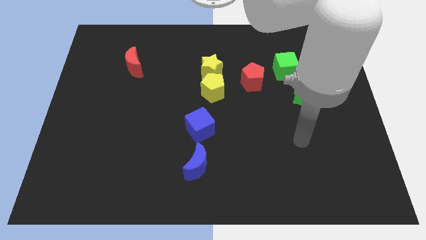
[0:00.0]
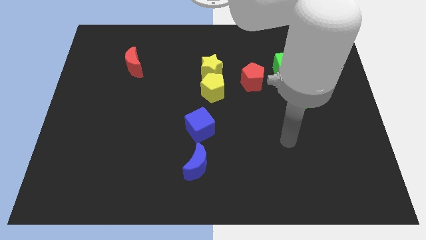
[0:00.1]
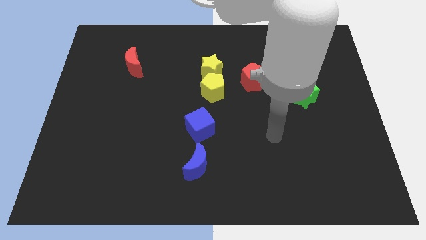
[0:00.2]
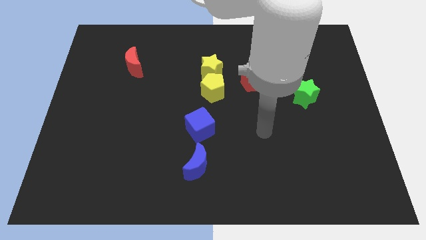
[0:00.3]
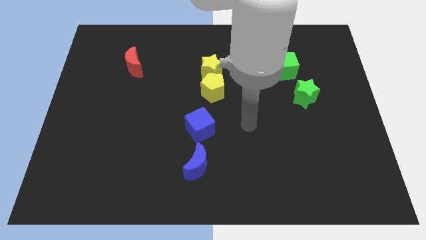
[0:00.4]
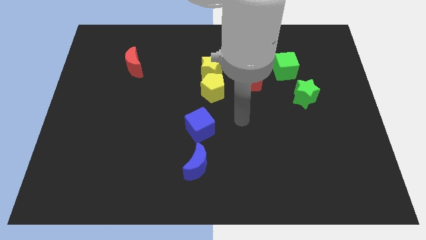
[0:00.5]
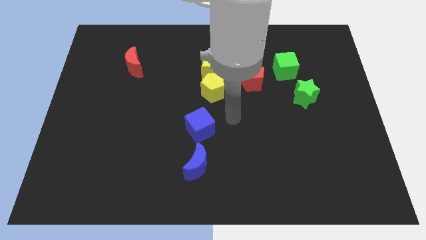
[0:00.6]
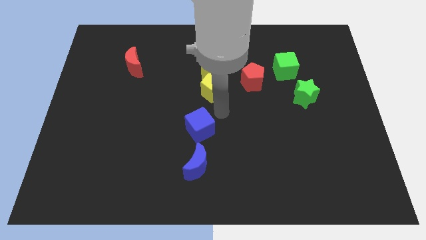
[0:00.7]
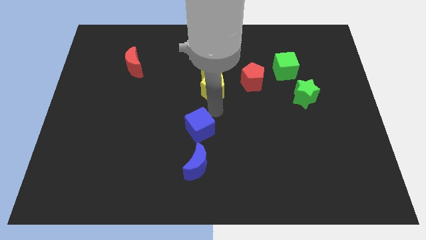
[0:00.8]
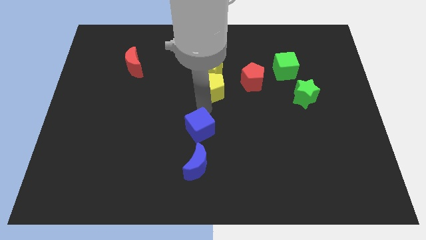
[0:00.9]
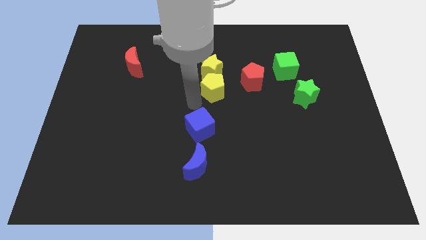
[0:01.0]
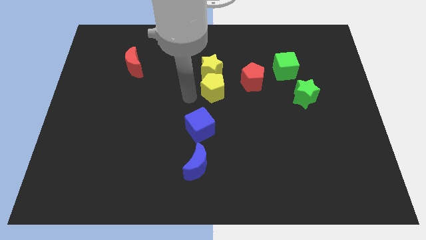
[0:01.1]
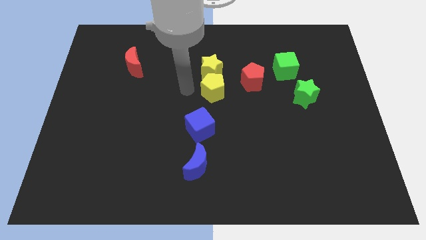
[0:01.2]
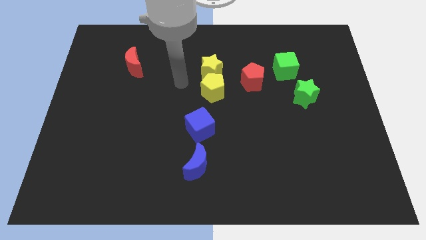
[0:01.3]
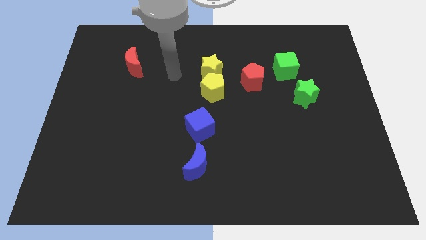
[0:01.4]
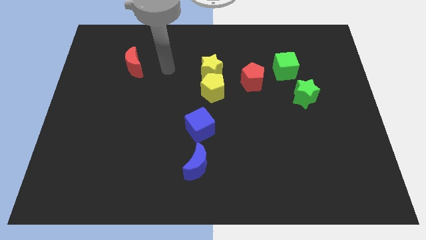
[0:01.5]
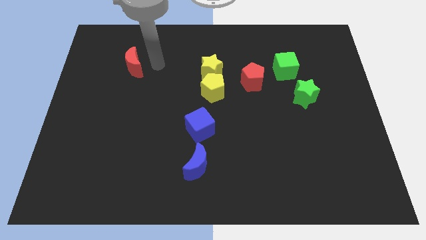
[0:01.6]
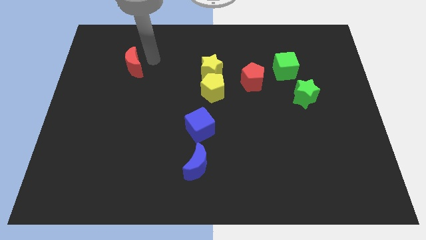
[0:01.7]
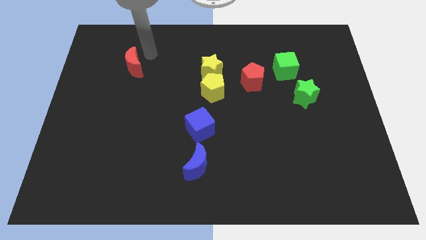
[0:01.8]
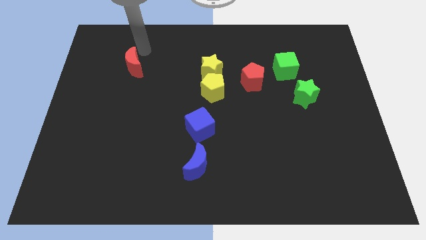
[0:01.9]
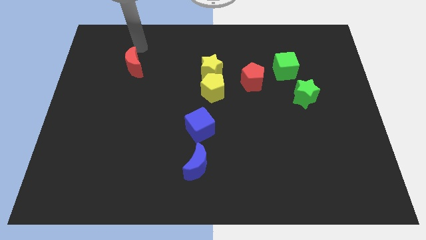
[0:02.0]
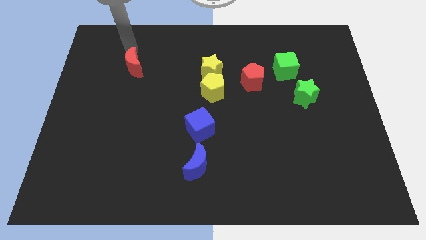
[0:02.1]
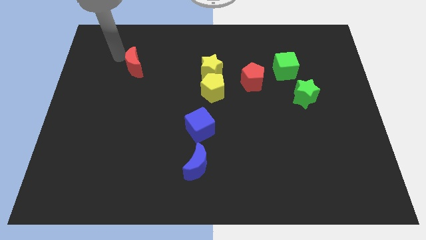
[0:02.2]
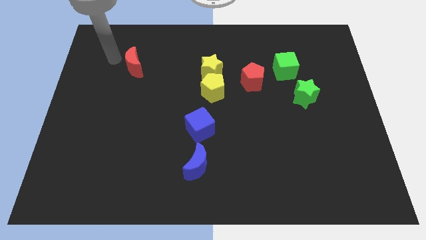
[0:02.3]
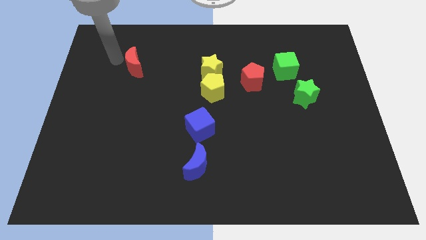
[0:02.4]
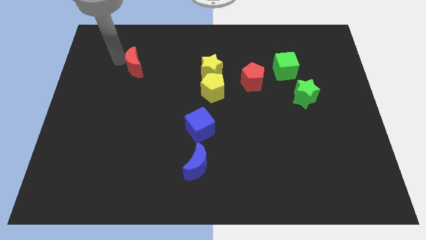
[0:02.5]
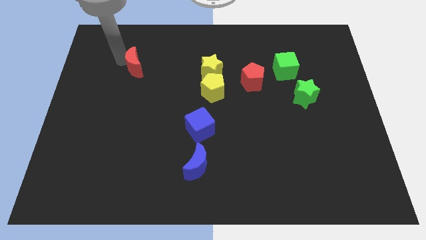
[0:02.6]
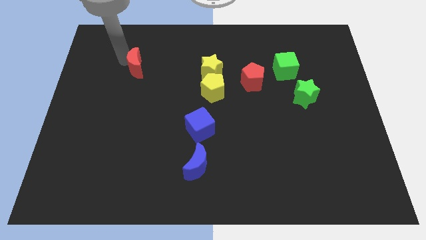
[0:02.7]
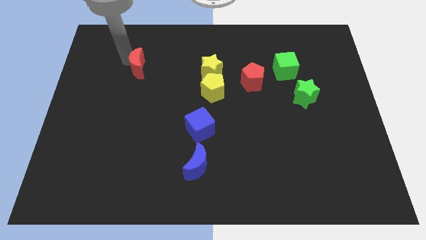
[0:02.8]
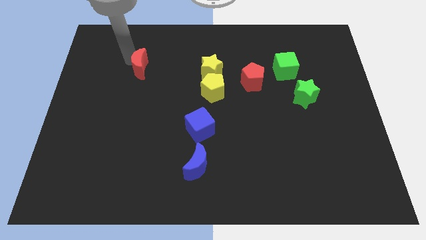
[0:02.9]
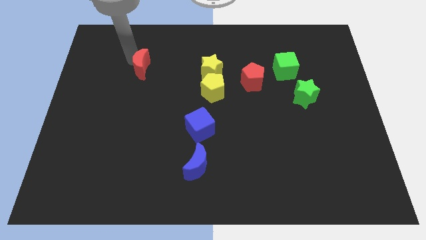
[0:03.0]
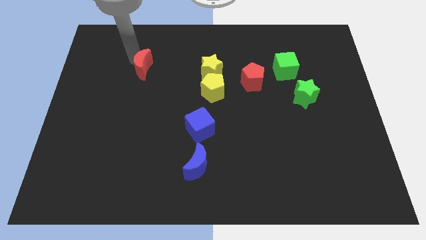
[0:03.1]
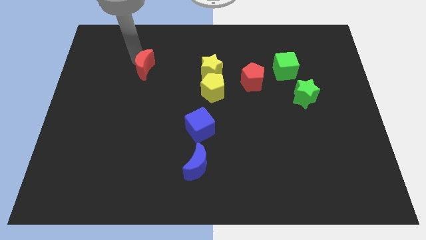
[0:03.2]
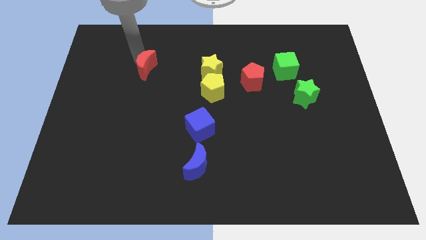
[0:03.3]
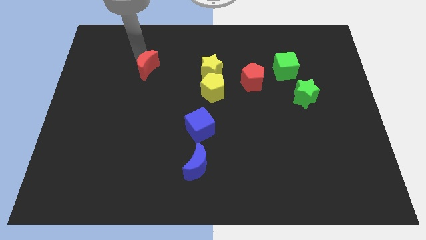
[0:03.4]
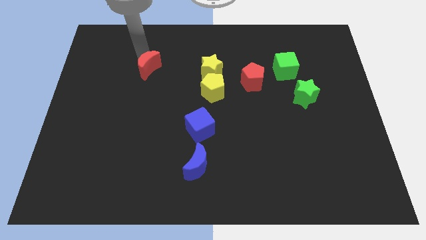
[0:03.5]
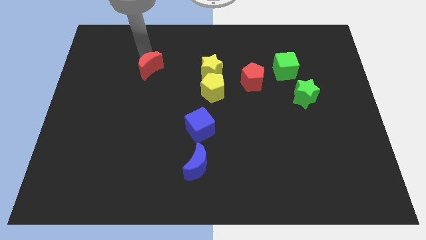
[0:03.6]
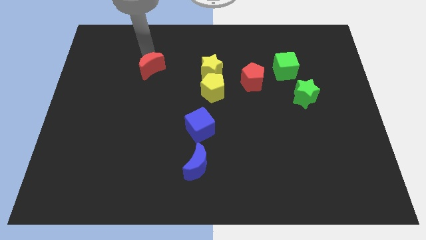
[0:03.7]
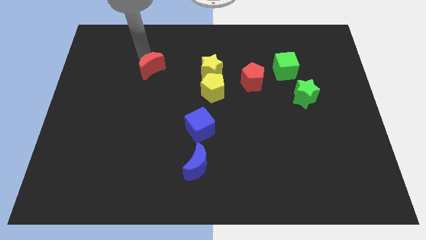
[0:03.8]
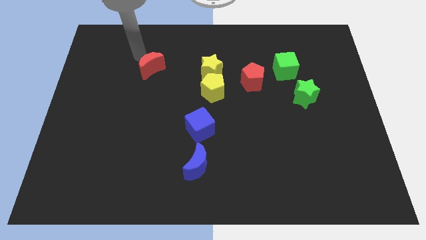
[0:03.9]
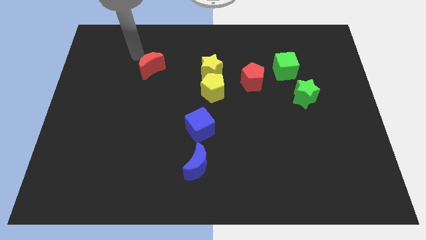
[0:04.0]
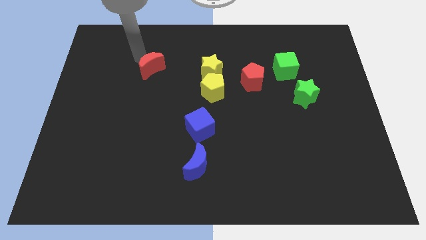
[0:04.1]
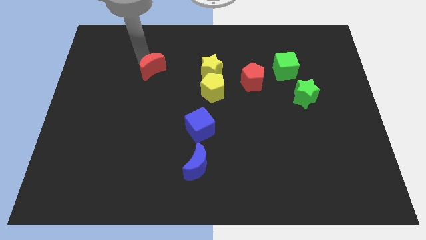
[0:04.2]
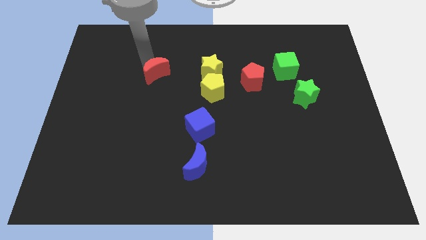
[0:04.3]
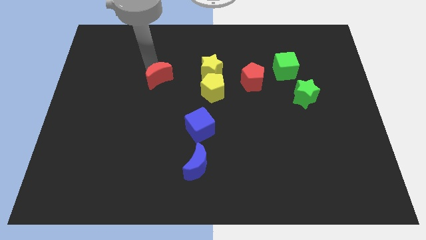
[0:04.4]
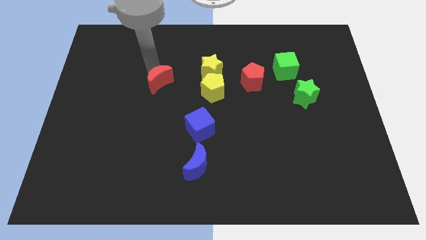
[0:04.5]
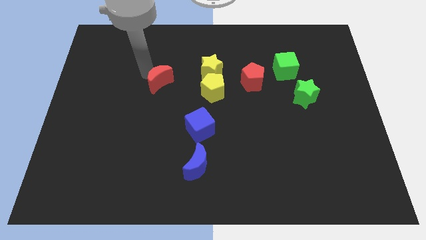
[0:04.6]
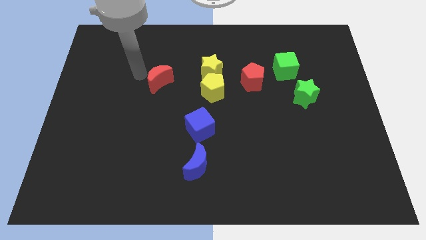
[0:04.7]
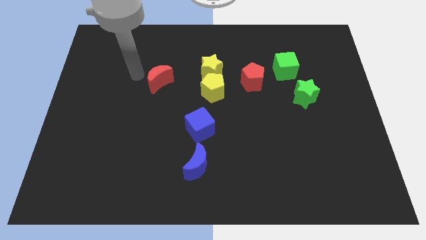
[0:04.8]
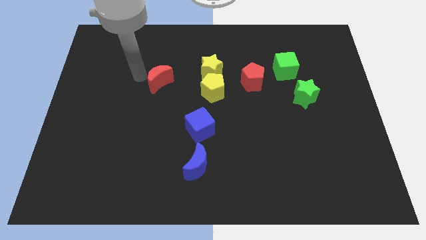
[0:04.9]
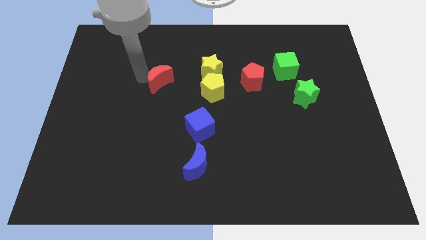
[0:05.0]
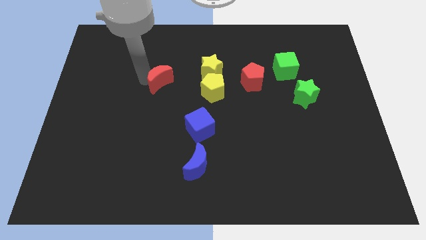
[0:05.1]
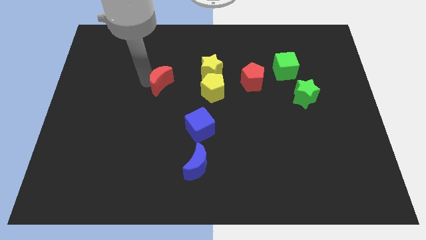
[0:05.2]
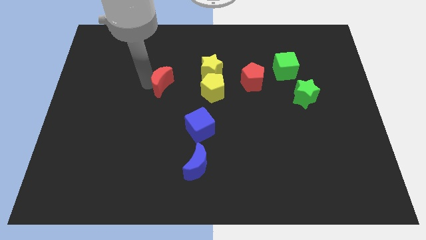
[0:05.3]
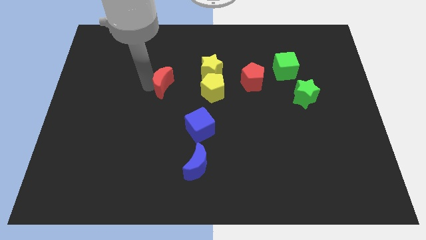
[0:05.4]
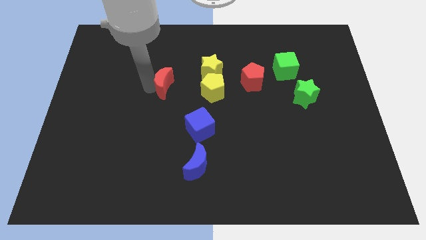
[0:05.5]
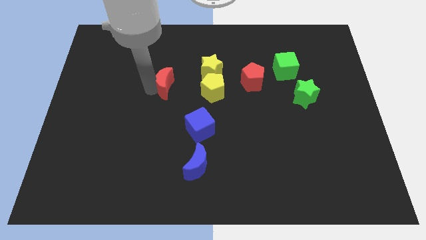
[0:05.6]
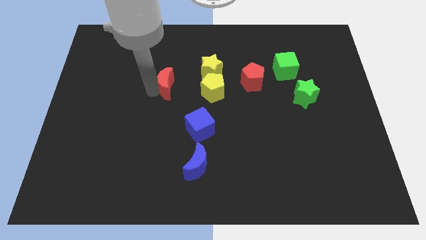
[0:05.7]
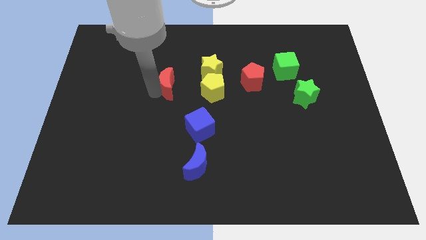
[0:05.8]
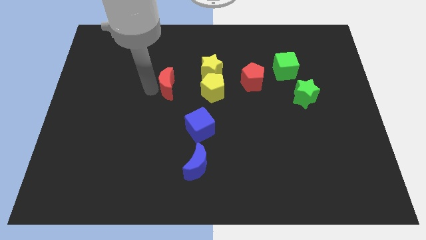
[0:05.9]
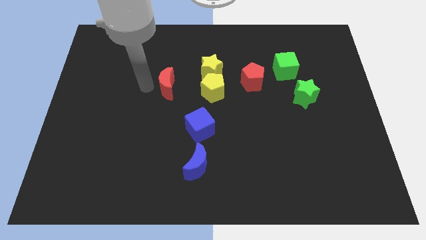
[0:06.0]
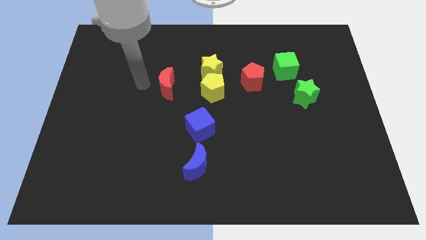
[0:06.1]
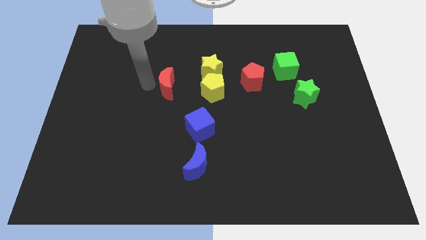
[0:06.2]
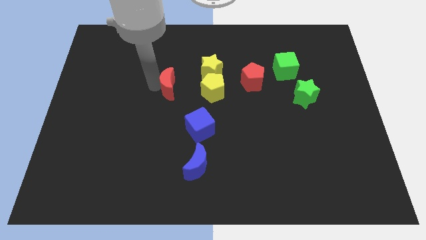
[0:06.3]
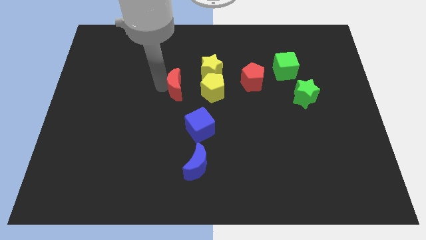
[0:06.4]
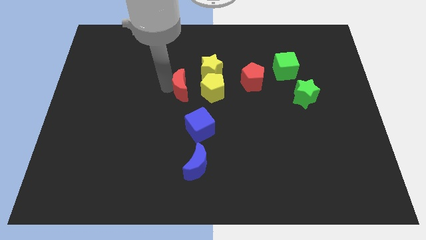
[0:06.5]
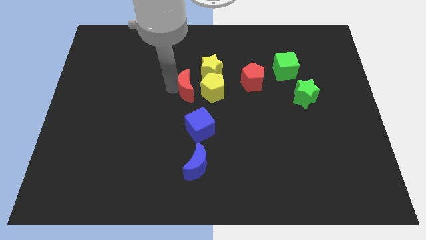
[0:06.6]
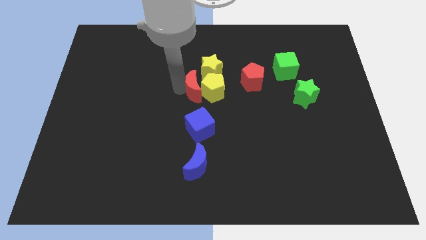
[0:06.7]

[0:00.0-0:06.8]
put the red moon towards the yellow pentagon
